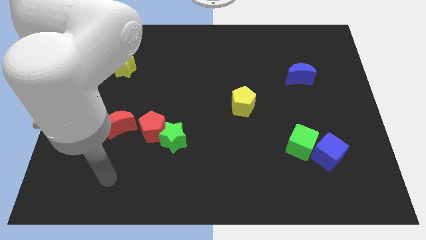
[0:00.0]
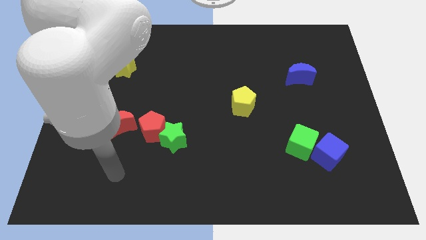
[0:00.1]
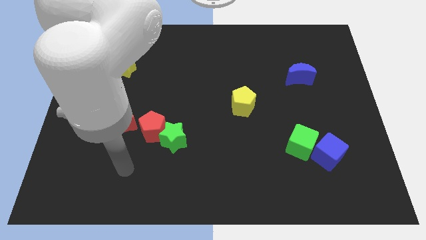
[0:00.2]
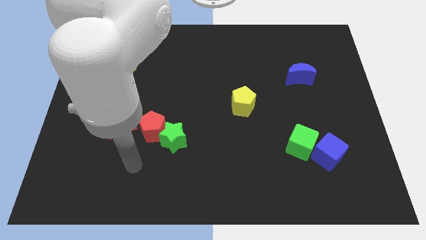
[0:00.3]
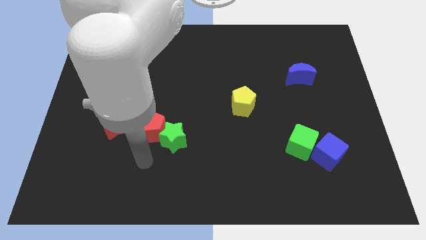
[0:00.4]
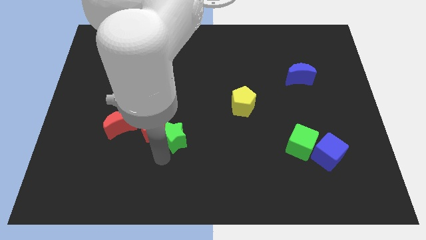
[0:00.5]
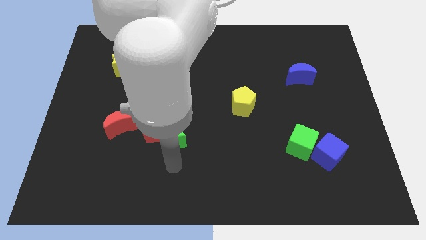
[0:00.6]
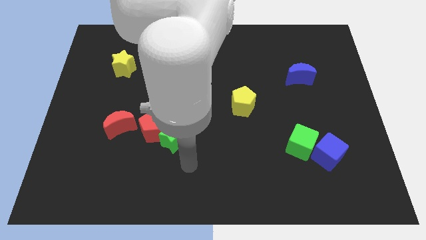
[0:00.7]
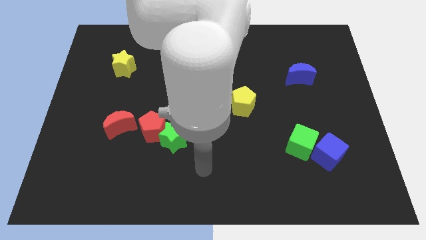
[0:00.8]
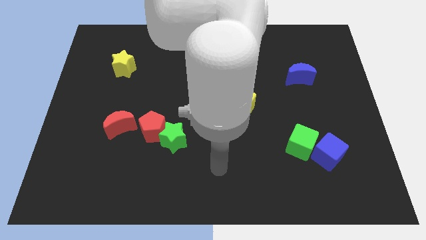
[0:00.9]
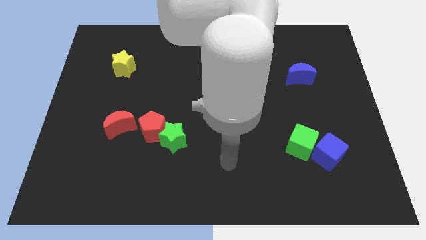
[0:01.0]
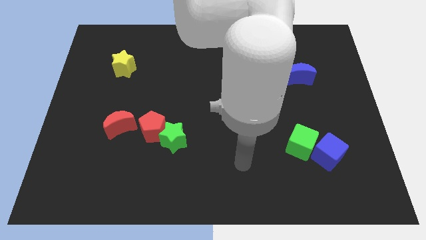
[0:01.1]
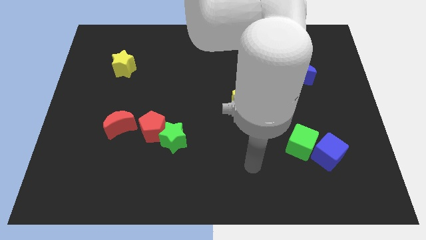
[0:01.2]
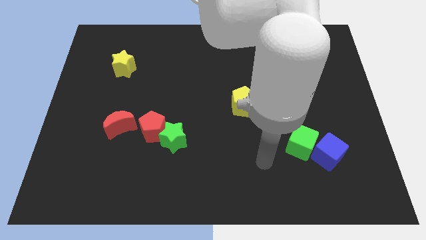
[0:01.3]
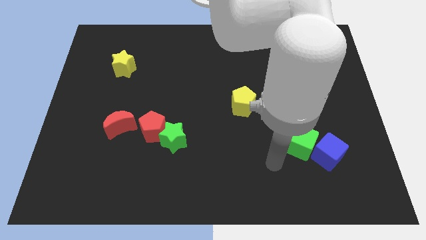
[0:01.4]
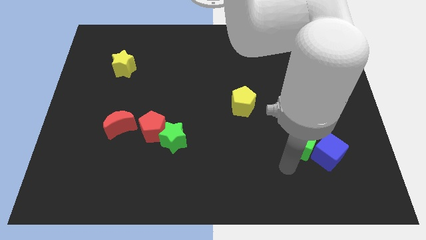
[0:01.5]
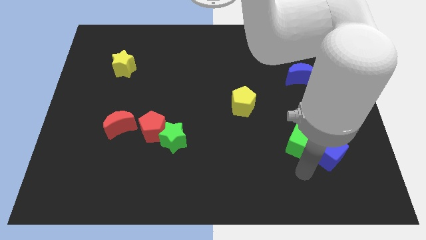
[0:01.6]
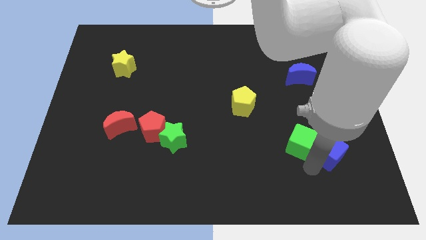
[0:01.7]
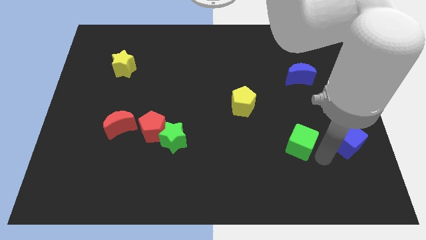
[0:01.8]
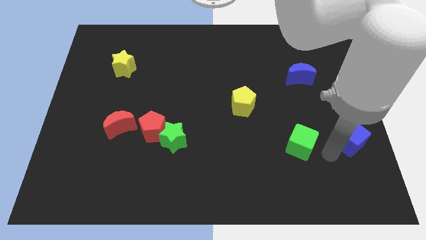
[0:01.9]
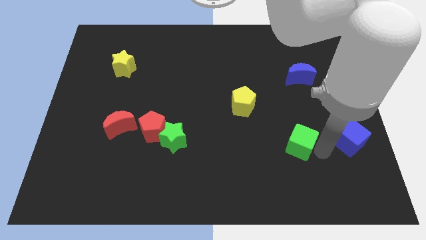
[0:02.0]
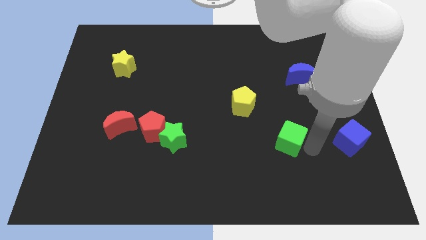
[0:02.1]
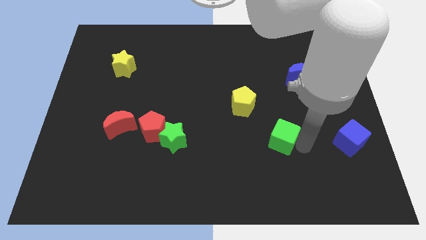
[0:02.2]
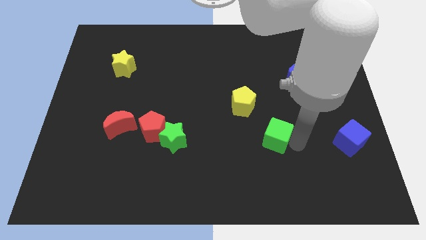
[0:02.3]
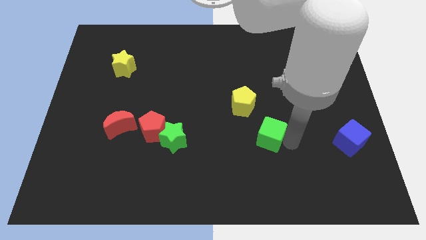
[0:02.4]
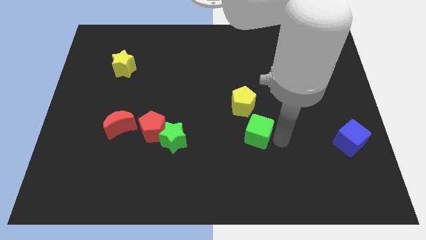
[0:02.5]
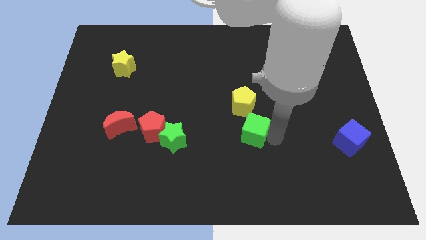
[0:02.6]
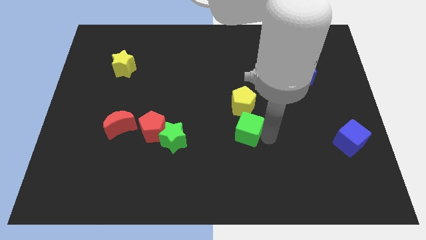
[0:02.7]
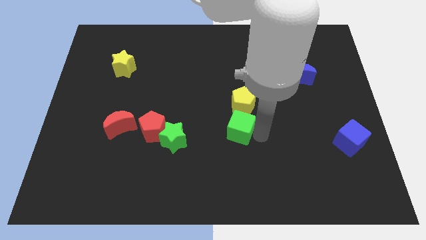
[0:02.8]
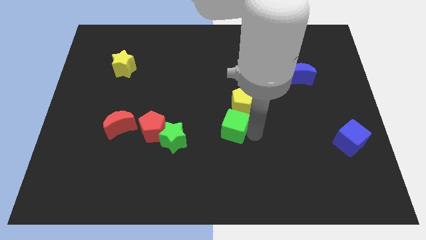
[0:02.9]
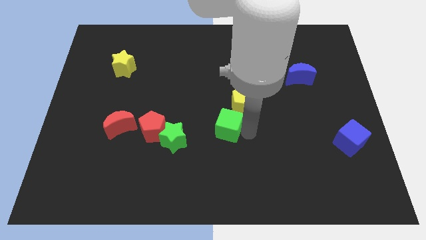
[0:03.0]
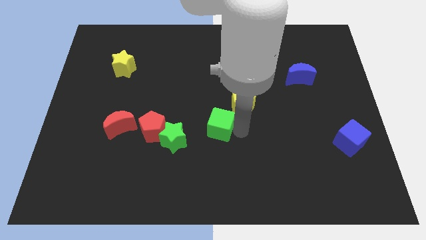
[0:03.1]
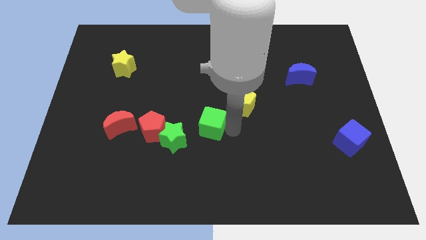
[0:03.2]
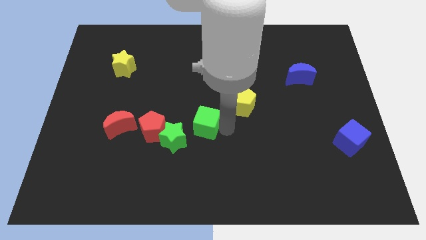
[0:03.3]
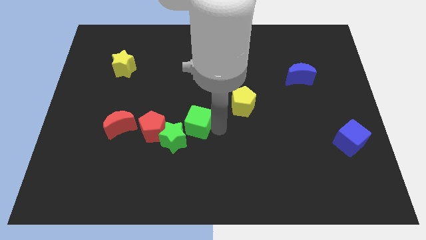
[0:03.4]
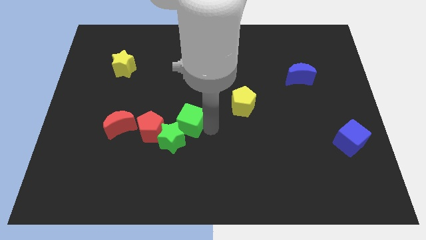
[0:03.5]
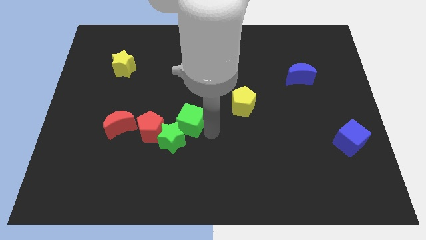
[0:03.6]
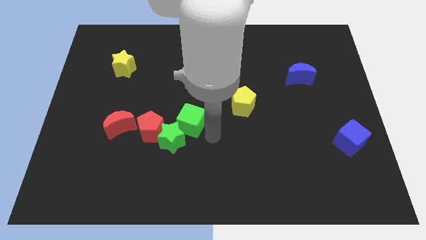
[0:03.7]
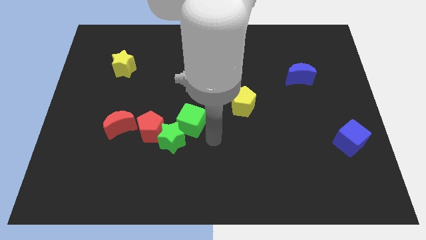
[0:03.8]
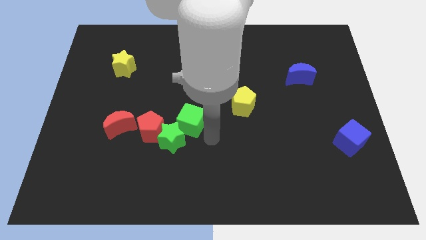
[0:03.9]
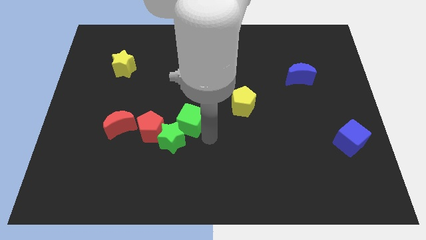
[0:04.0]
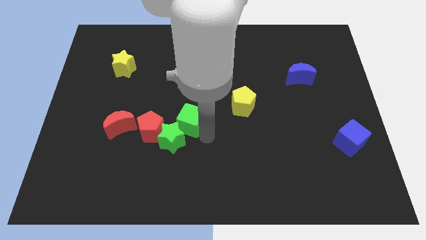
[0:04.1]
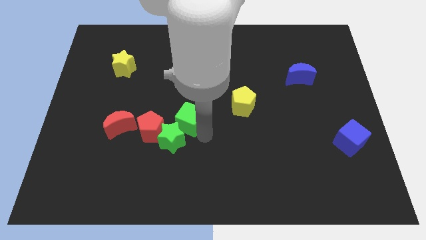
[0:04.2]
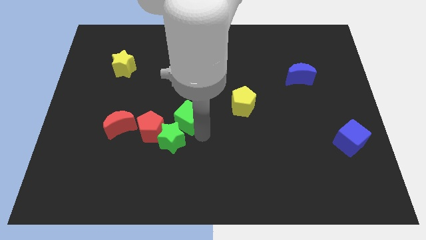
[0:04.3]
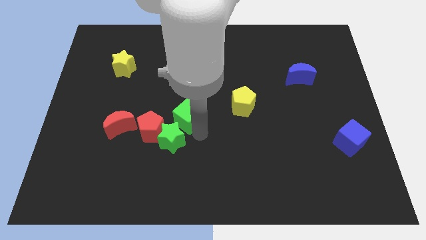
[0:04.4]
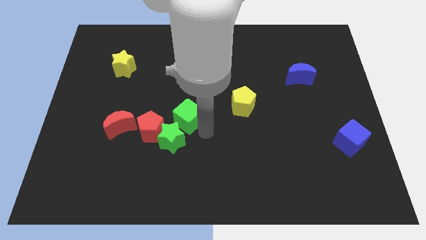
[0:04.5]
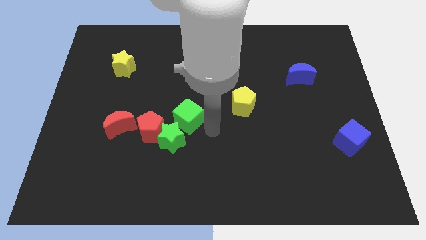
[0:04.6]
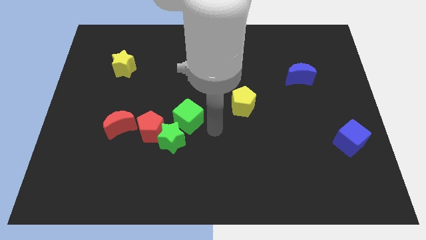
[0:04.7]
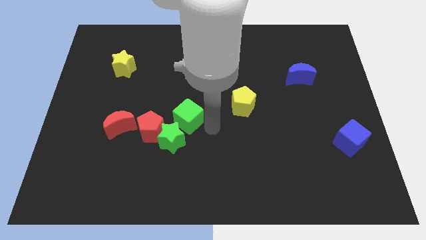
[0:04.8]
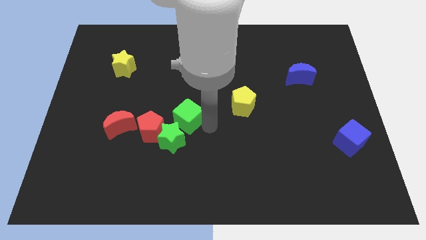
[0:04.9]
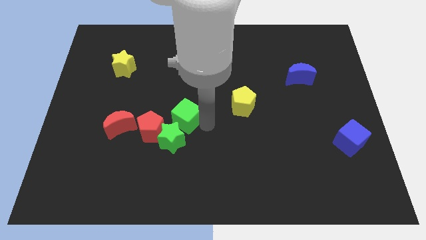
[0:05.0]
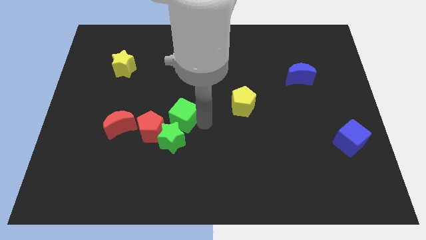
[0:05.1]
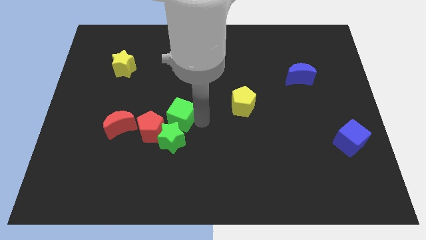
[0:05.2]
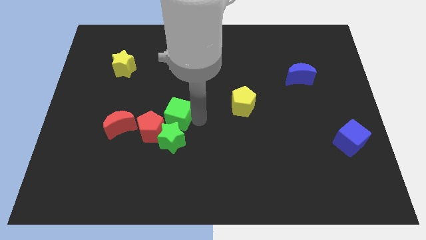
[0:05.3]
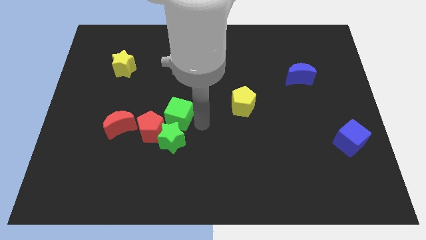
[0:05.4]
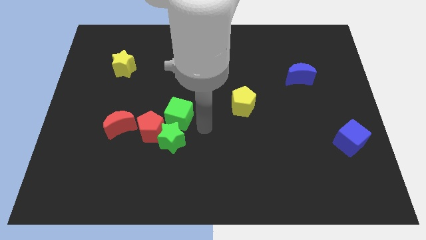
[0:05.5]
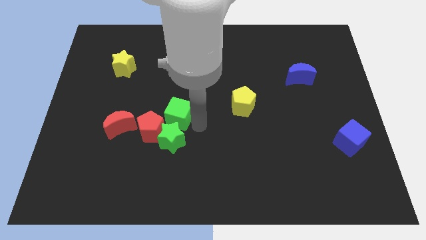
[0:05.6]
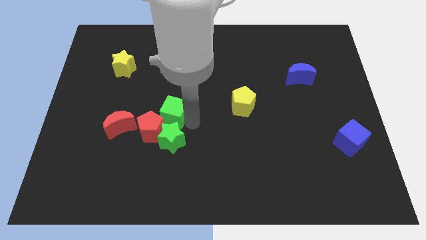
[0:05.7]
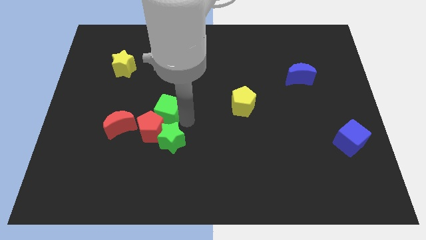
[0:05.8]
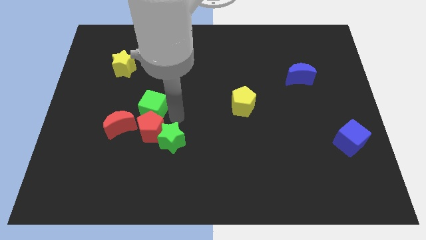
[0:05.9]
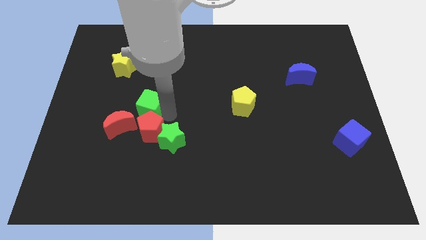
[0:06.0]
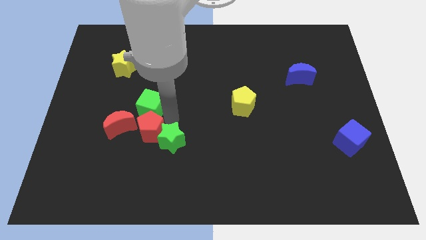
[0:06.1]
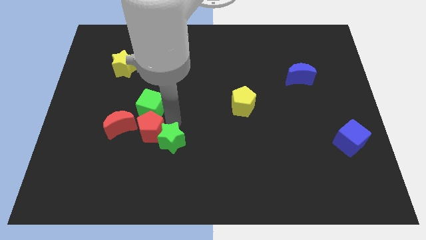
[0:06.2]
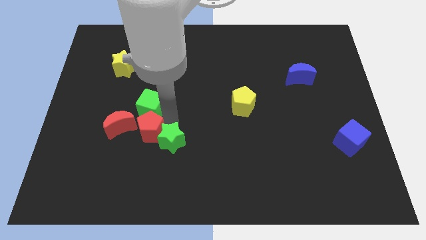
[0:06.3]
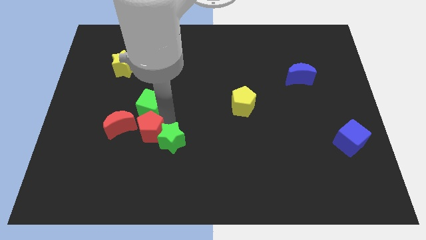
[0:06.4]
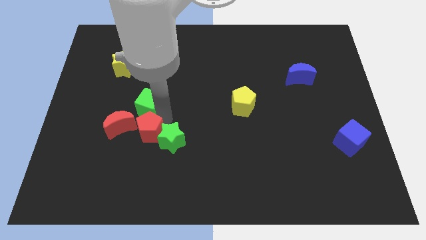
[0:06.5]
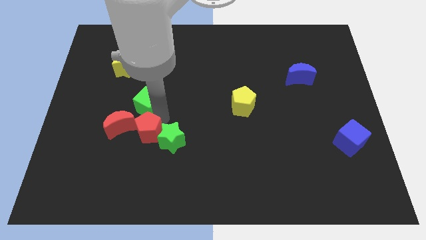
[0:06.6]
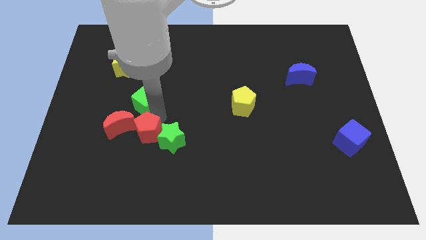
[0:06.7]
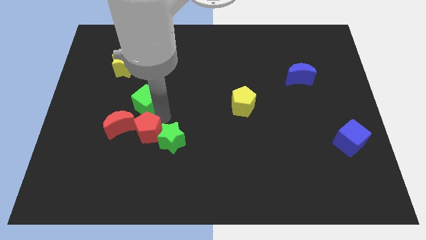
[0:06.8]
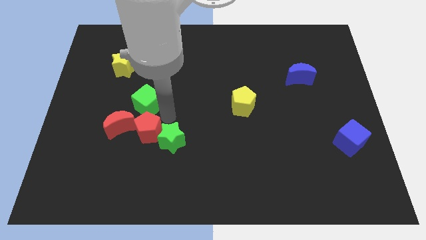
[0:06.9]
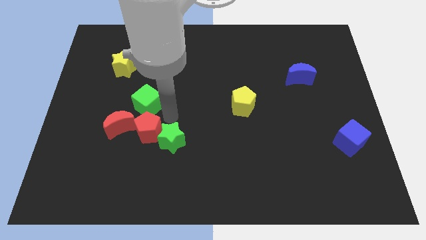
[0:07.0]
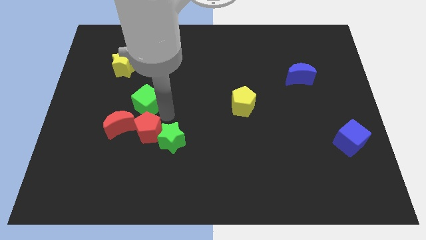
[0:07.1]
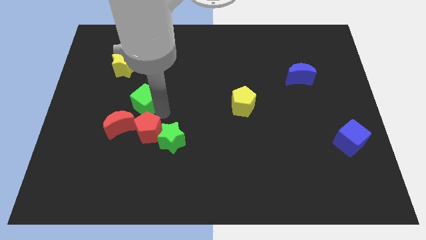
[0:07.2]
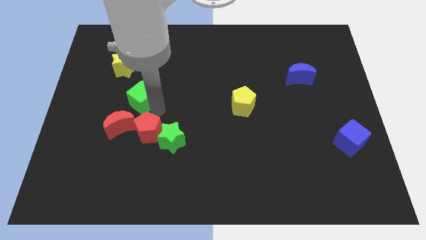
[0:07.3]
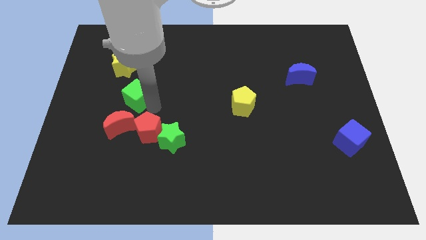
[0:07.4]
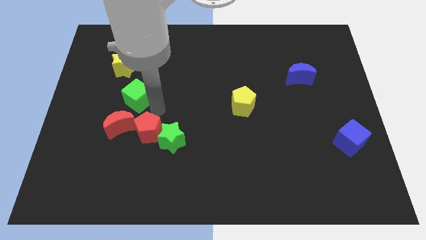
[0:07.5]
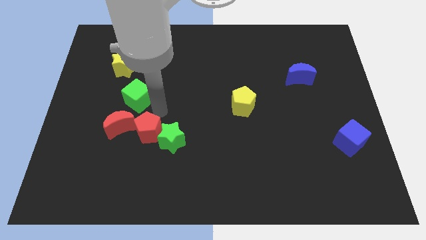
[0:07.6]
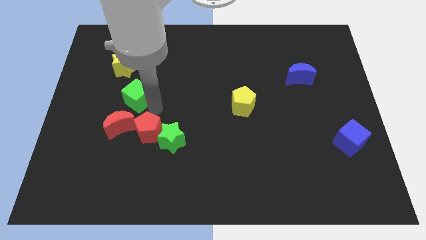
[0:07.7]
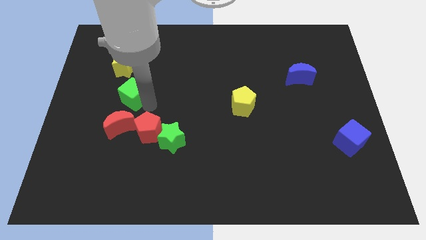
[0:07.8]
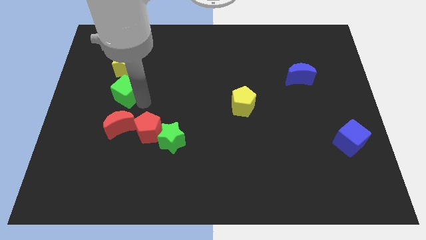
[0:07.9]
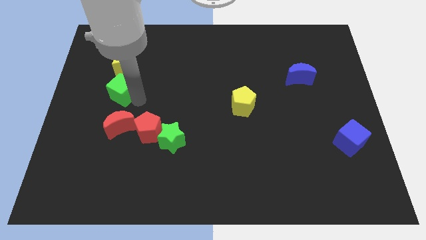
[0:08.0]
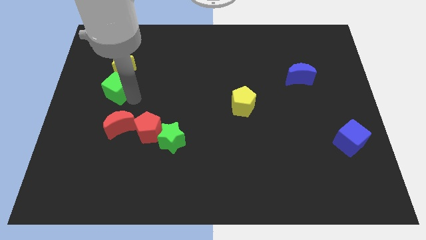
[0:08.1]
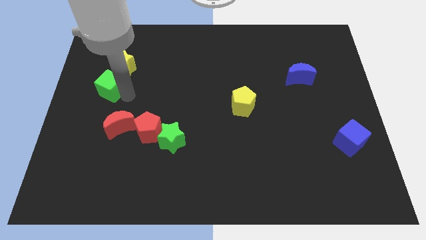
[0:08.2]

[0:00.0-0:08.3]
slide the green cube diagonally down and to the left of the yellow star
